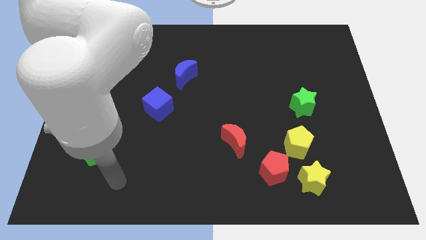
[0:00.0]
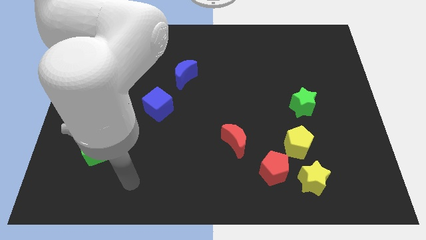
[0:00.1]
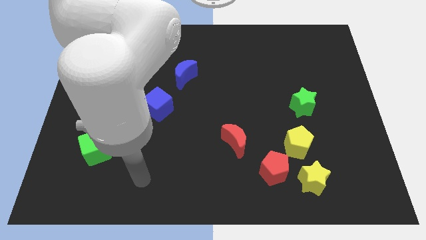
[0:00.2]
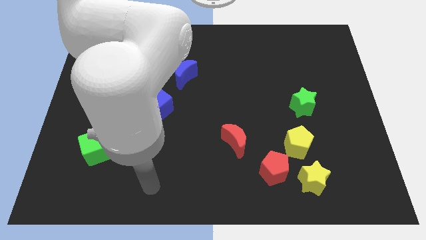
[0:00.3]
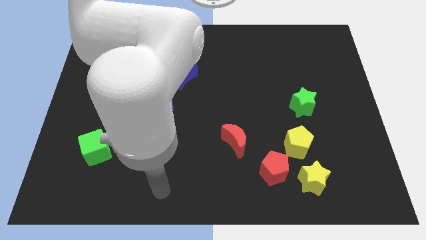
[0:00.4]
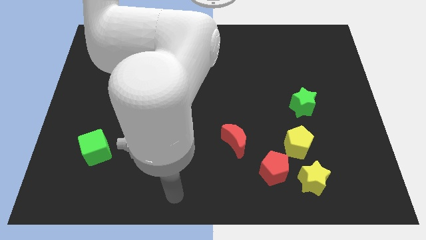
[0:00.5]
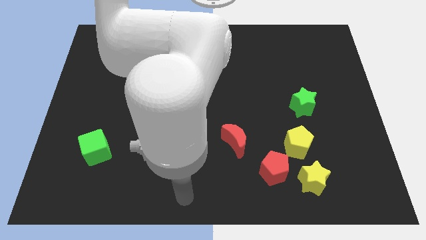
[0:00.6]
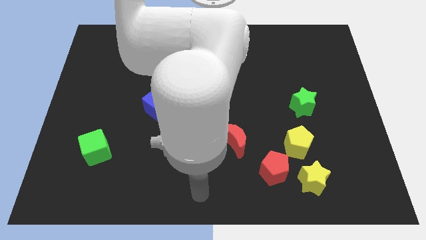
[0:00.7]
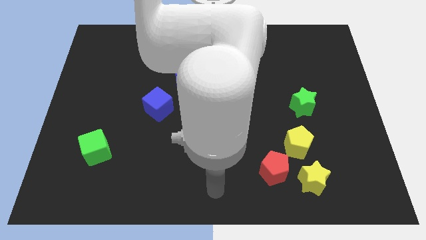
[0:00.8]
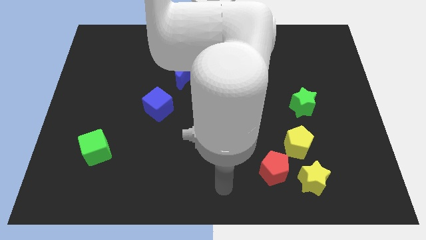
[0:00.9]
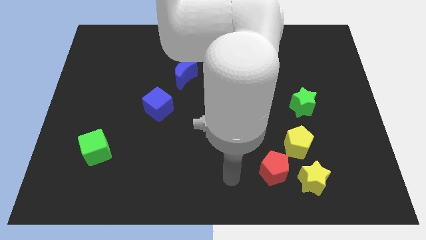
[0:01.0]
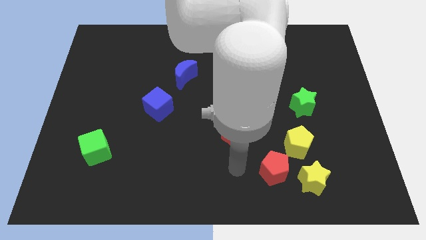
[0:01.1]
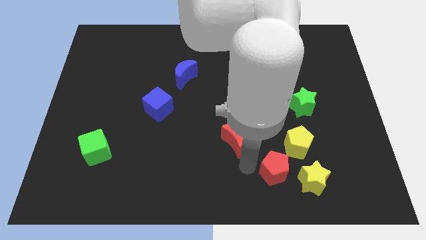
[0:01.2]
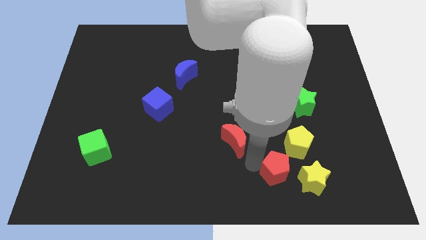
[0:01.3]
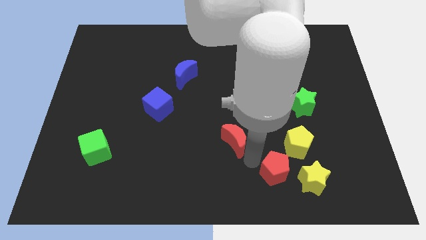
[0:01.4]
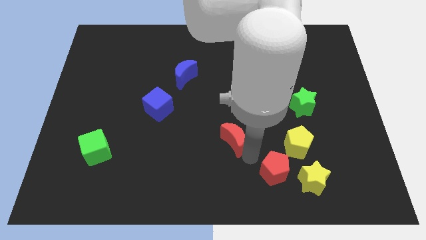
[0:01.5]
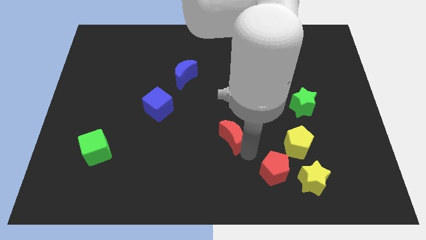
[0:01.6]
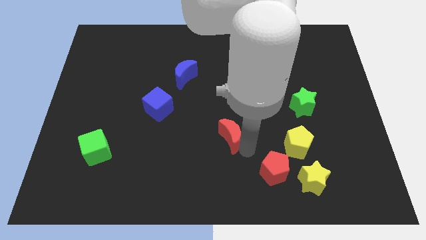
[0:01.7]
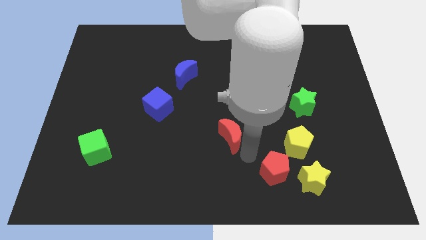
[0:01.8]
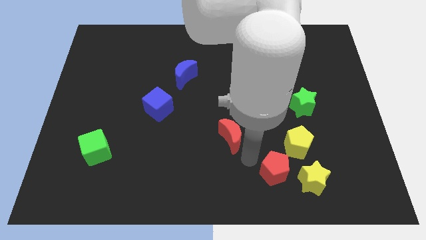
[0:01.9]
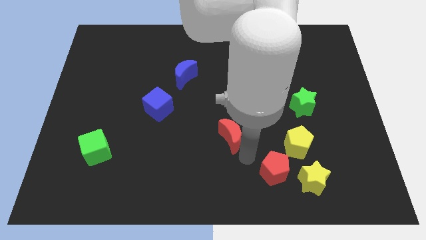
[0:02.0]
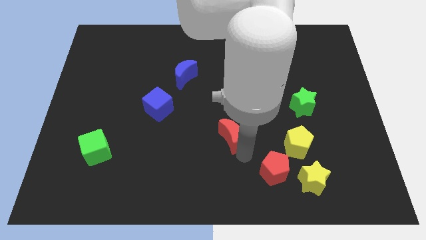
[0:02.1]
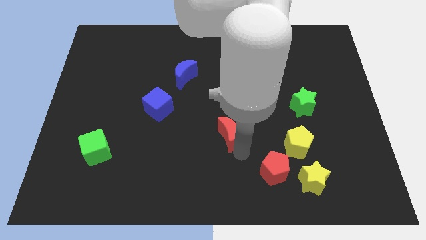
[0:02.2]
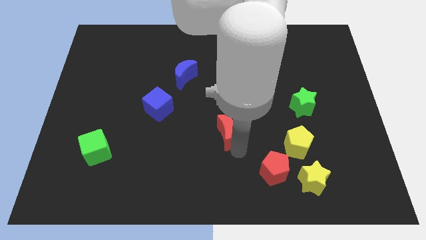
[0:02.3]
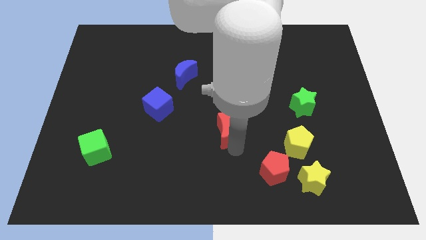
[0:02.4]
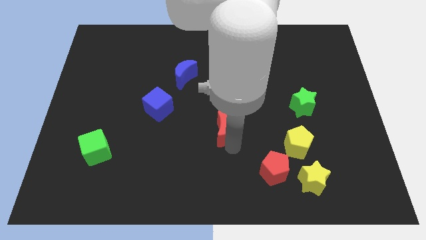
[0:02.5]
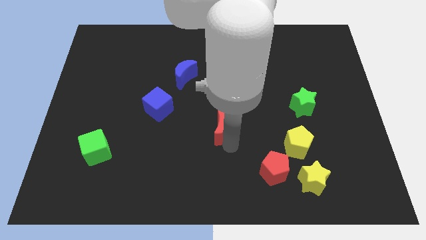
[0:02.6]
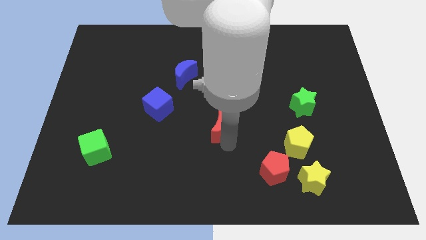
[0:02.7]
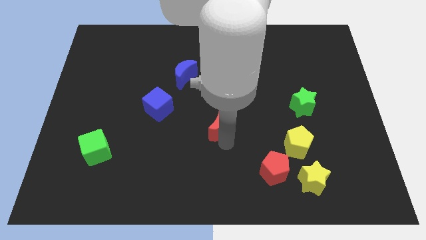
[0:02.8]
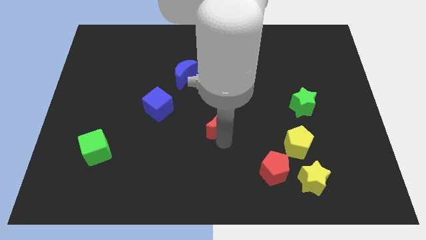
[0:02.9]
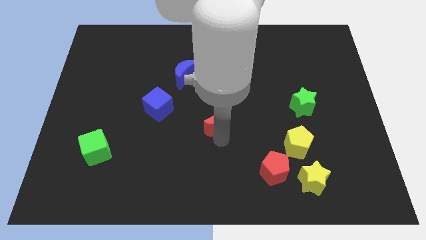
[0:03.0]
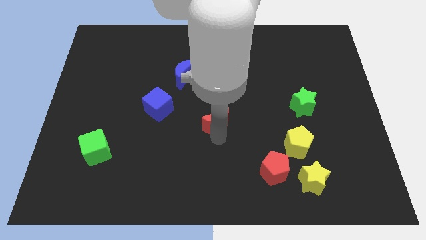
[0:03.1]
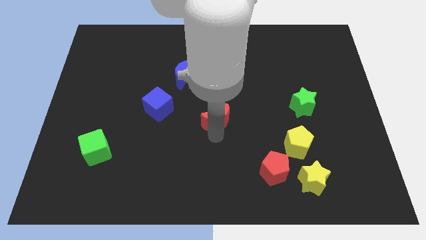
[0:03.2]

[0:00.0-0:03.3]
slide the red moon slightly up and then to the left

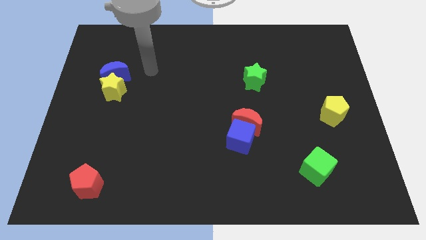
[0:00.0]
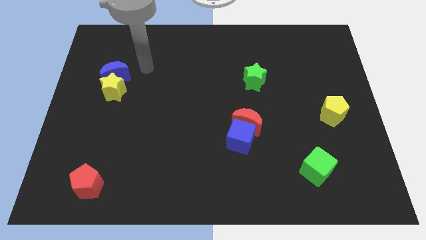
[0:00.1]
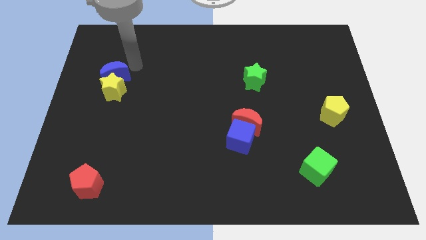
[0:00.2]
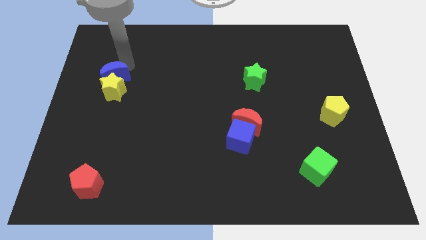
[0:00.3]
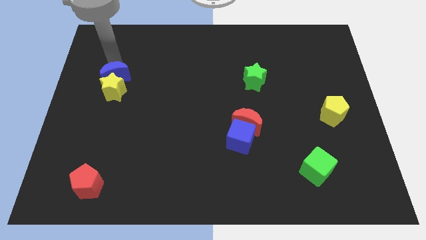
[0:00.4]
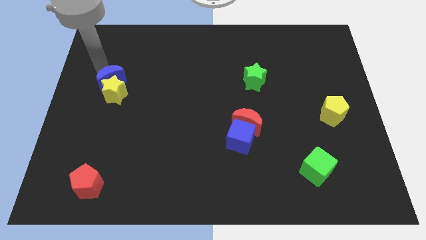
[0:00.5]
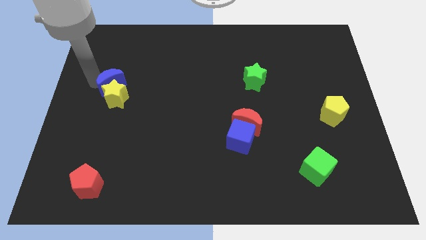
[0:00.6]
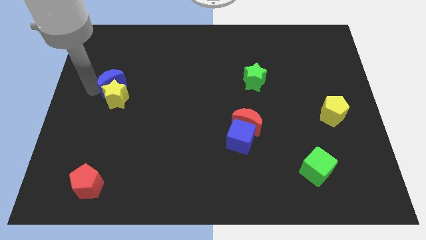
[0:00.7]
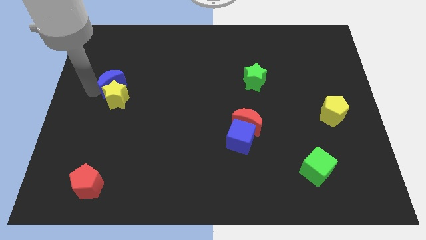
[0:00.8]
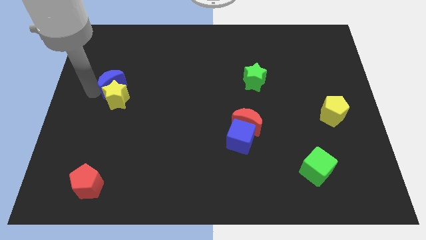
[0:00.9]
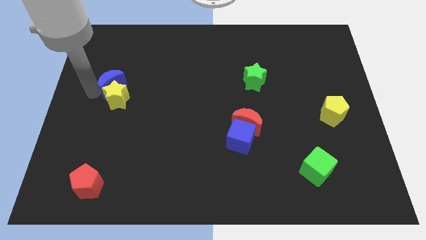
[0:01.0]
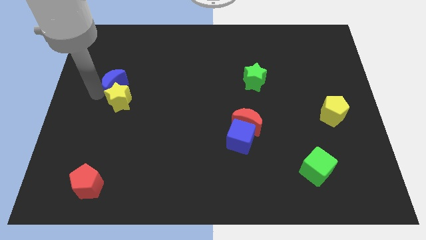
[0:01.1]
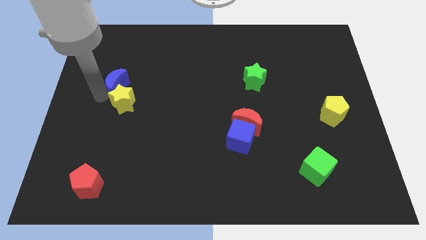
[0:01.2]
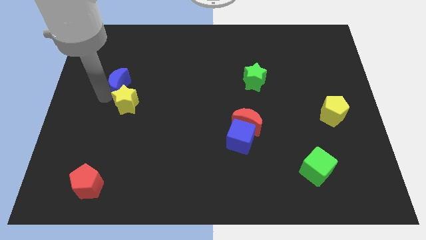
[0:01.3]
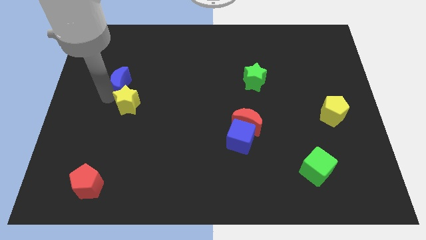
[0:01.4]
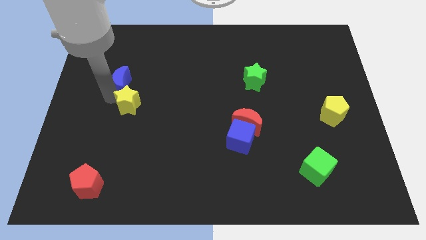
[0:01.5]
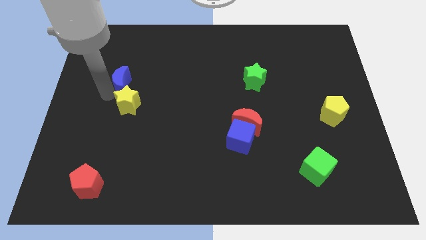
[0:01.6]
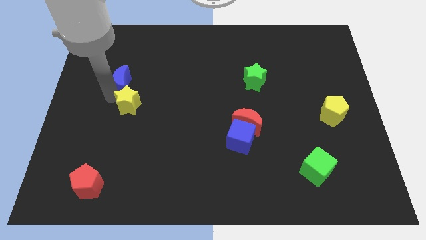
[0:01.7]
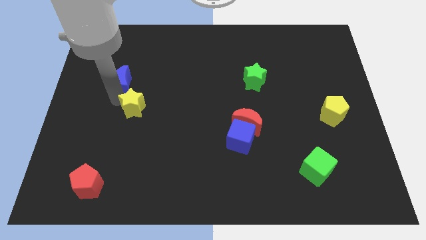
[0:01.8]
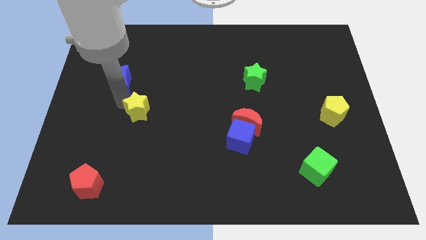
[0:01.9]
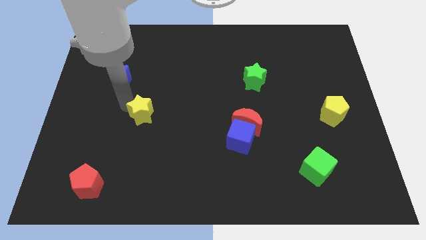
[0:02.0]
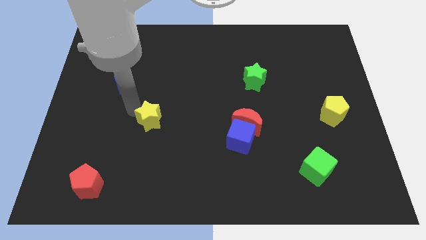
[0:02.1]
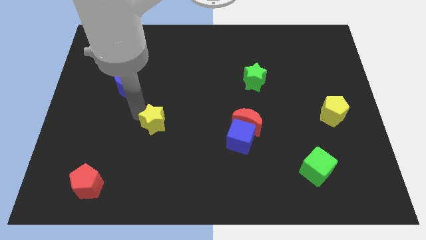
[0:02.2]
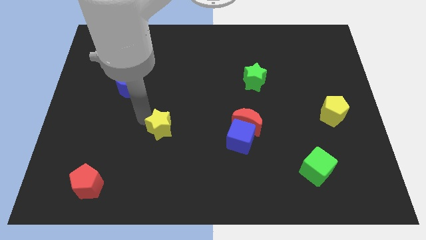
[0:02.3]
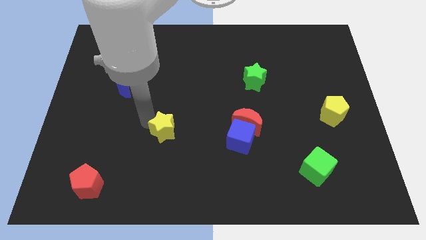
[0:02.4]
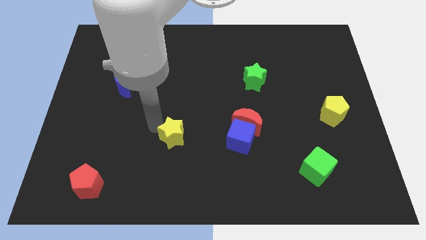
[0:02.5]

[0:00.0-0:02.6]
slide the yellow star downwards and then right

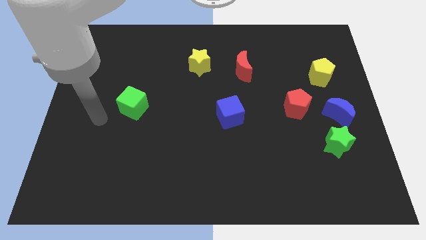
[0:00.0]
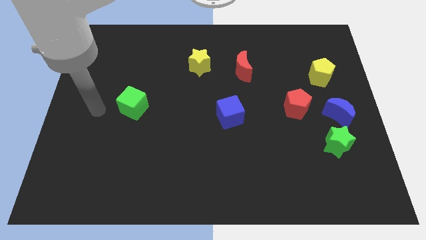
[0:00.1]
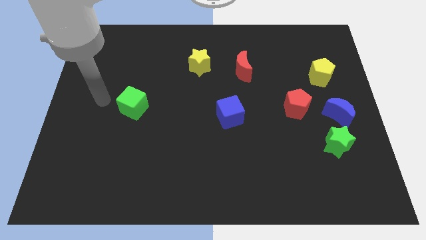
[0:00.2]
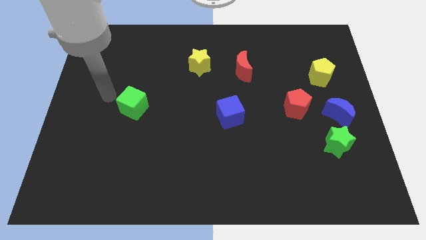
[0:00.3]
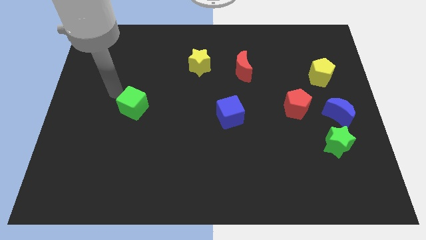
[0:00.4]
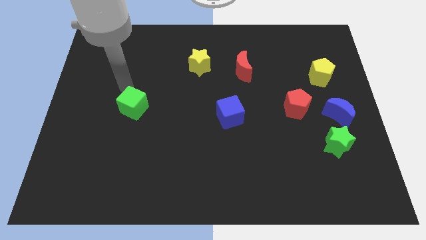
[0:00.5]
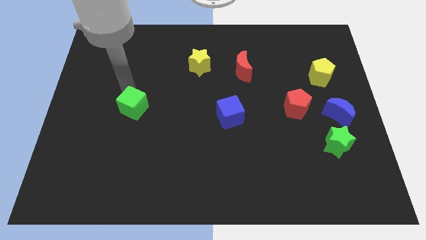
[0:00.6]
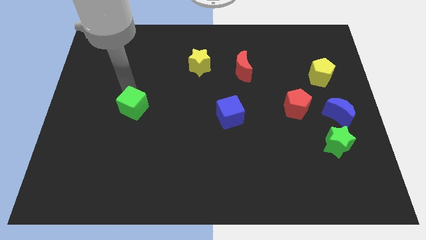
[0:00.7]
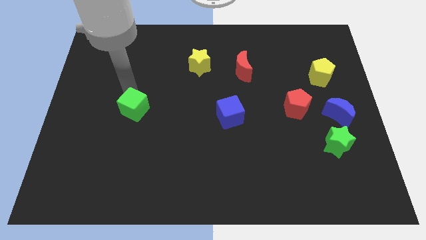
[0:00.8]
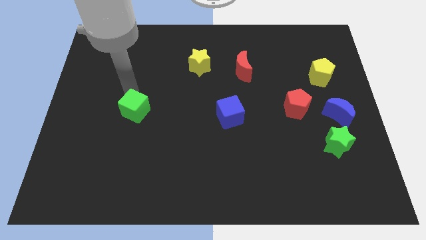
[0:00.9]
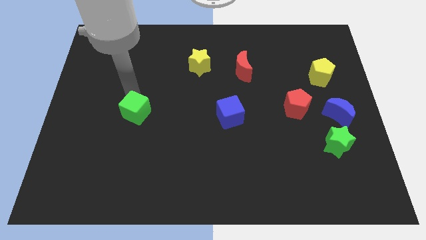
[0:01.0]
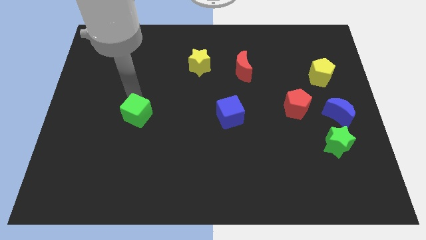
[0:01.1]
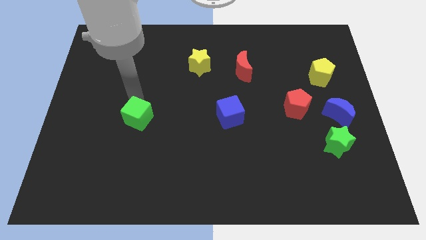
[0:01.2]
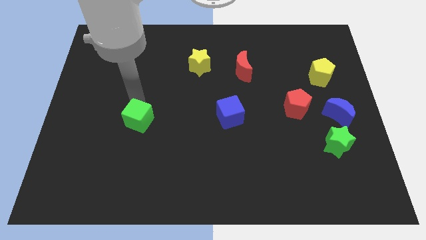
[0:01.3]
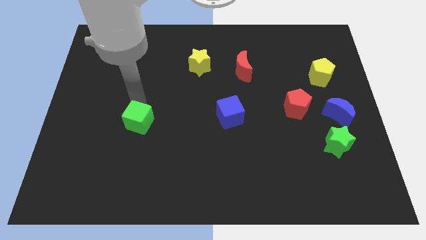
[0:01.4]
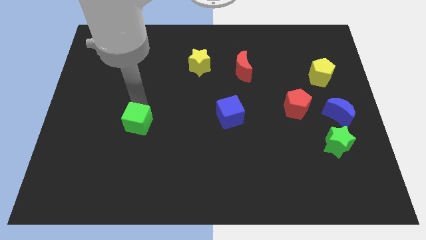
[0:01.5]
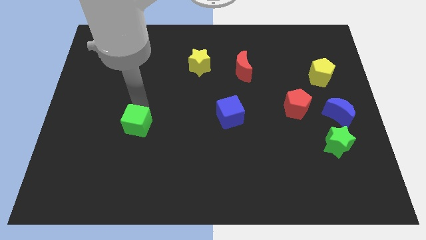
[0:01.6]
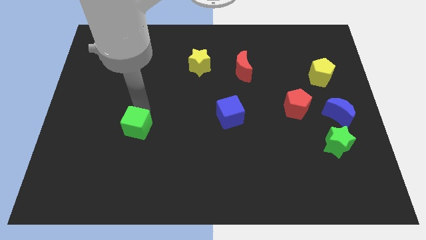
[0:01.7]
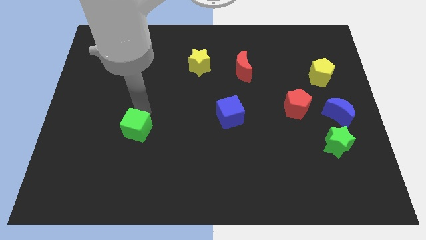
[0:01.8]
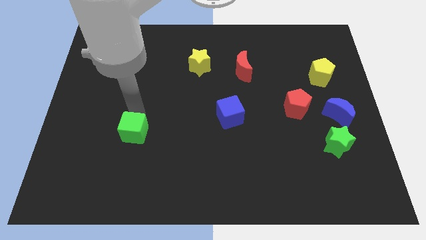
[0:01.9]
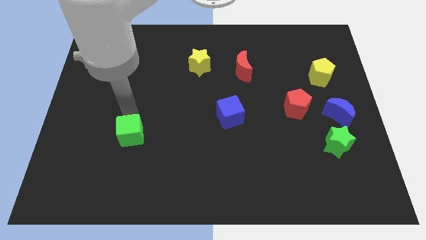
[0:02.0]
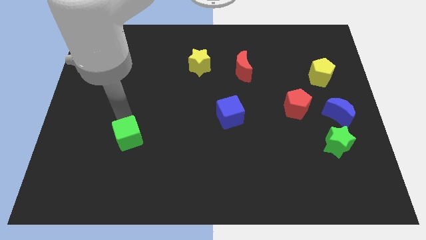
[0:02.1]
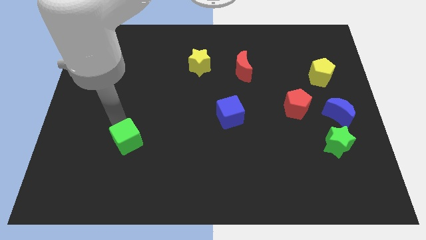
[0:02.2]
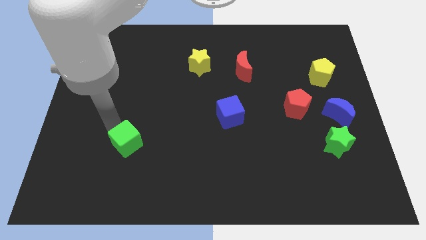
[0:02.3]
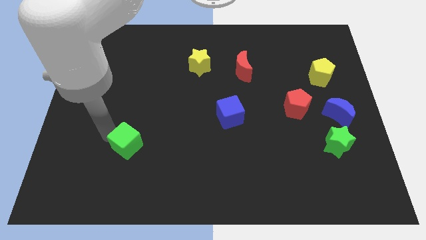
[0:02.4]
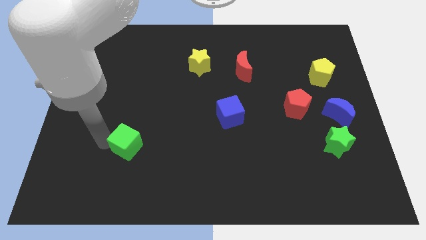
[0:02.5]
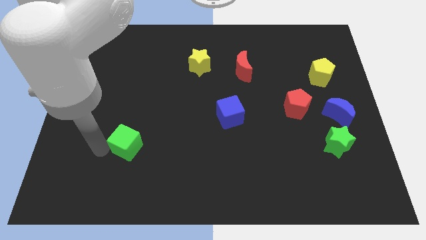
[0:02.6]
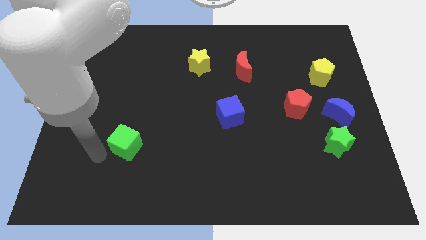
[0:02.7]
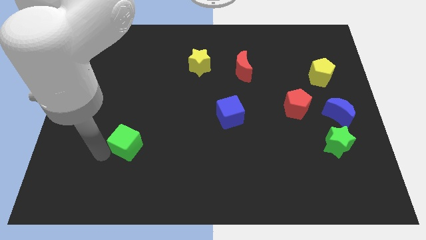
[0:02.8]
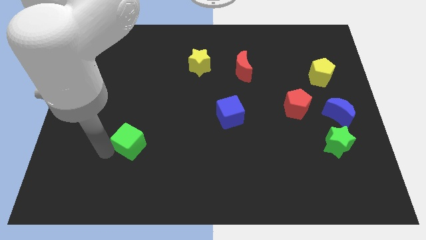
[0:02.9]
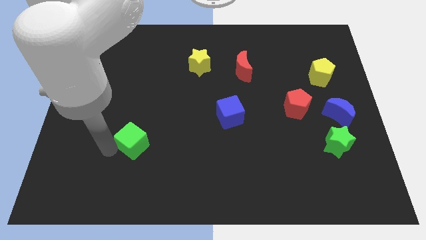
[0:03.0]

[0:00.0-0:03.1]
slightly push the green cube downwards and then right
